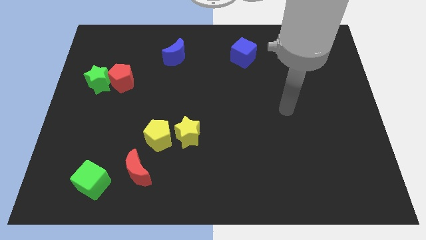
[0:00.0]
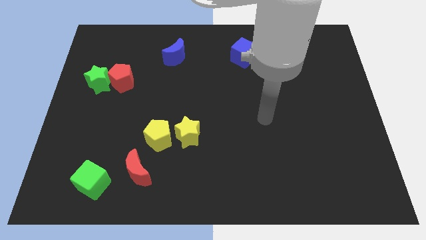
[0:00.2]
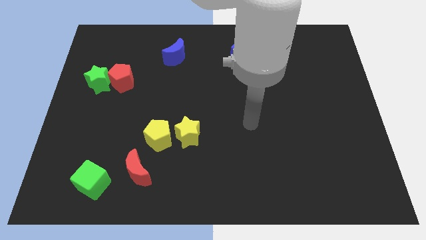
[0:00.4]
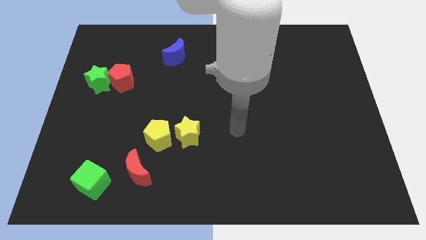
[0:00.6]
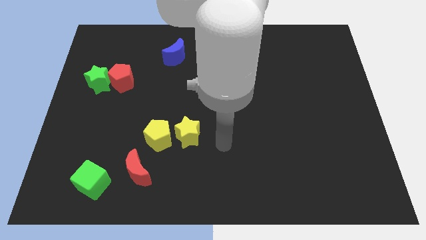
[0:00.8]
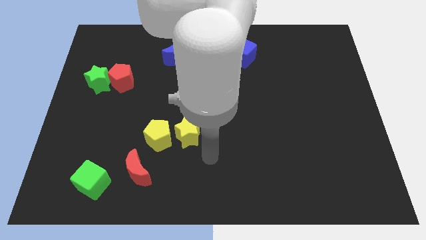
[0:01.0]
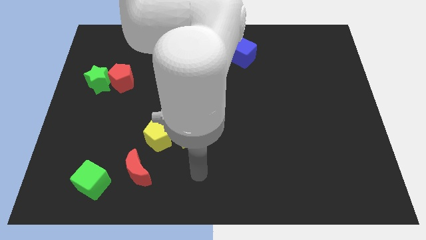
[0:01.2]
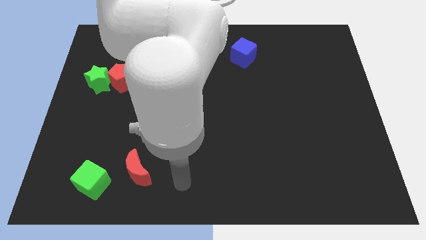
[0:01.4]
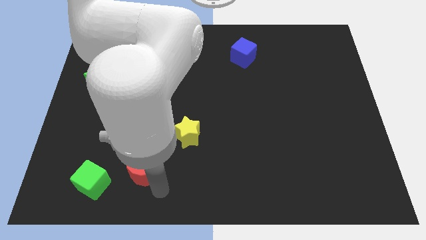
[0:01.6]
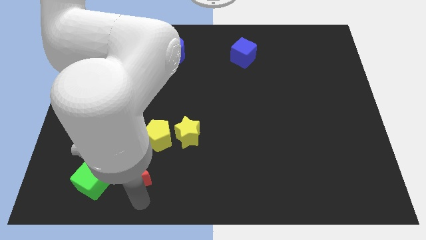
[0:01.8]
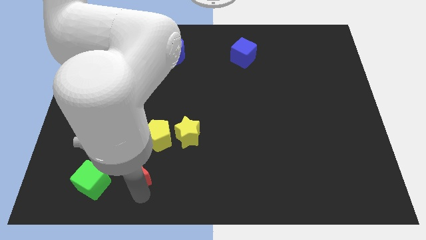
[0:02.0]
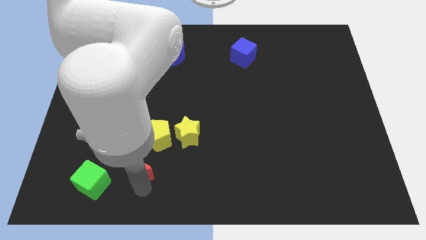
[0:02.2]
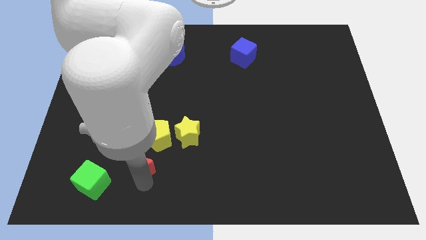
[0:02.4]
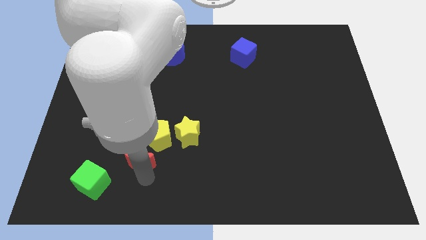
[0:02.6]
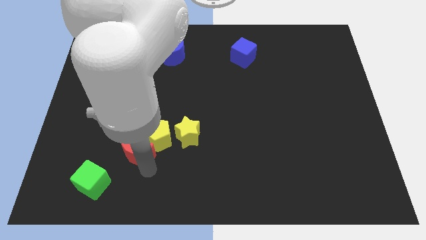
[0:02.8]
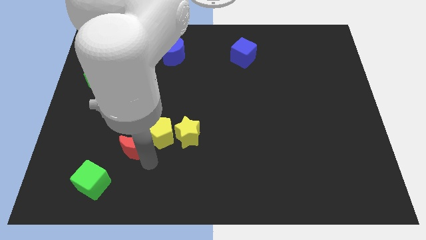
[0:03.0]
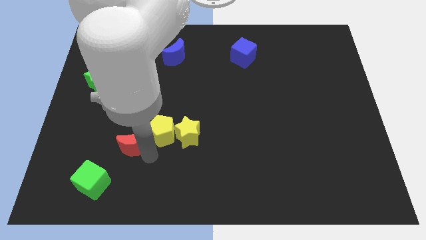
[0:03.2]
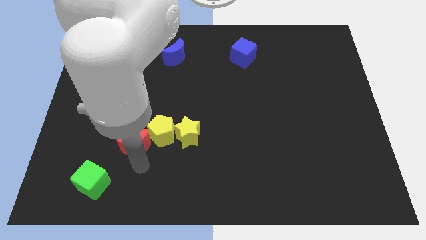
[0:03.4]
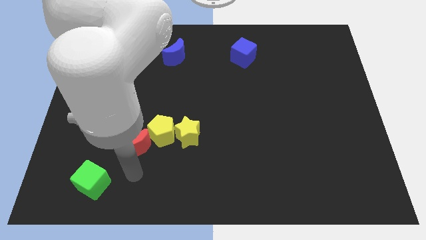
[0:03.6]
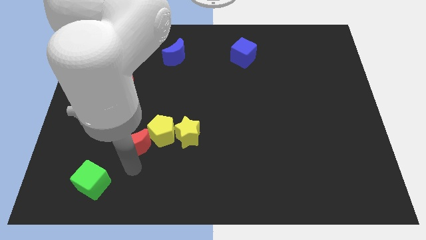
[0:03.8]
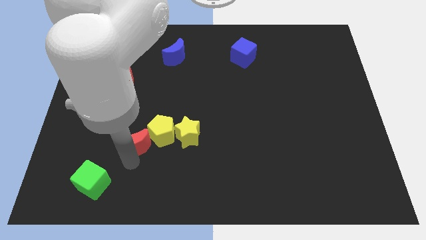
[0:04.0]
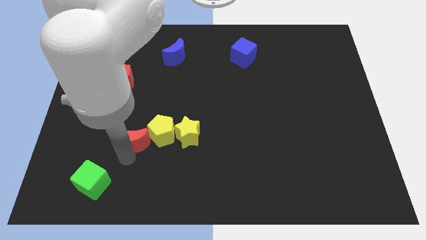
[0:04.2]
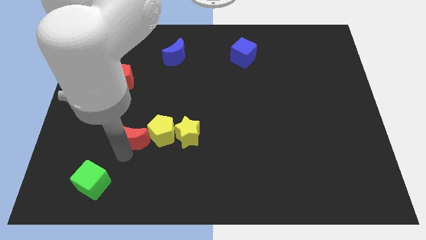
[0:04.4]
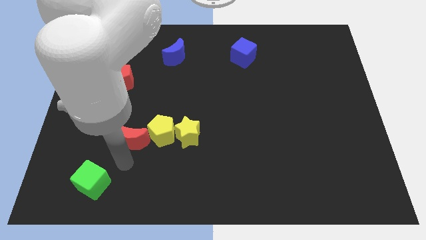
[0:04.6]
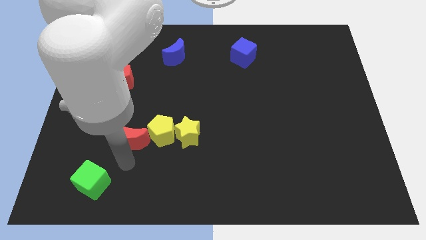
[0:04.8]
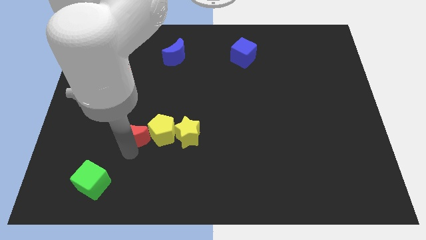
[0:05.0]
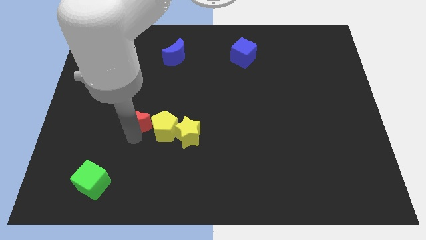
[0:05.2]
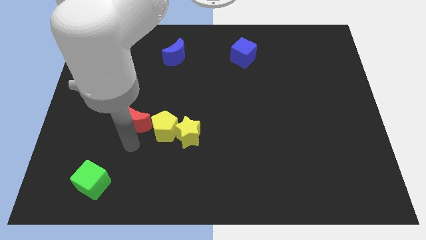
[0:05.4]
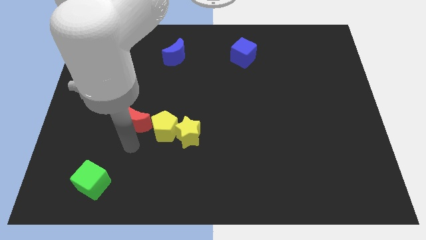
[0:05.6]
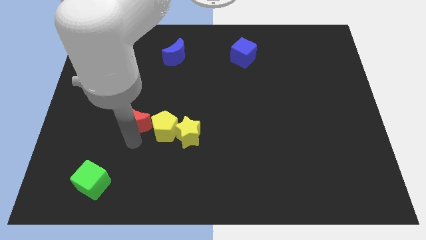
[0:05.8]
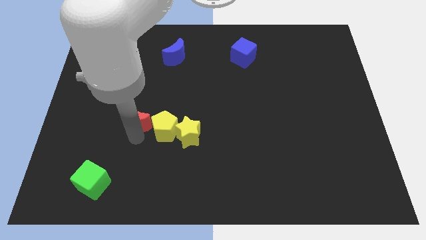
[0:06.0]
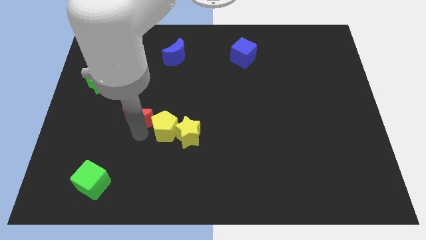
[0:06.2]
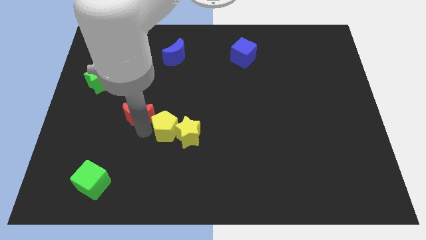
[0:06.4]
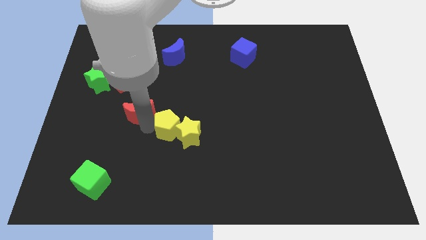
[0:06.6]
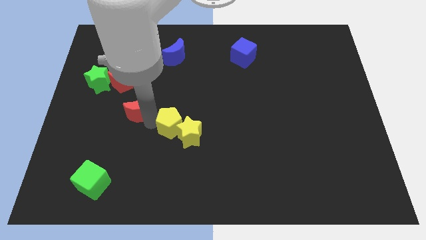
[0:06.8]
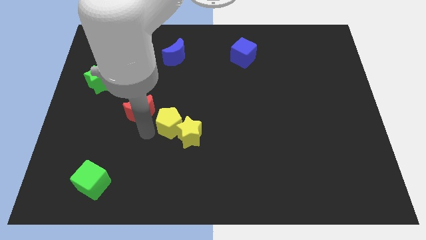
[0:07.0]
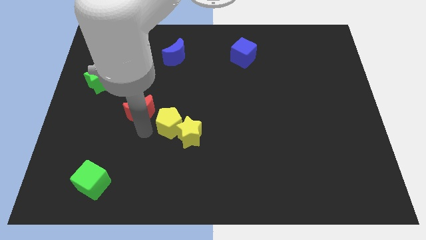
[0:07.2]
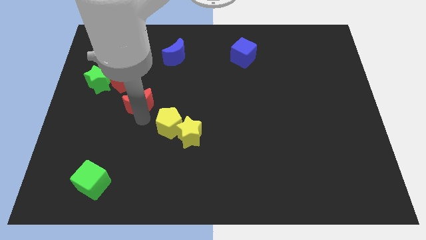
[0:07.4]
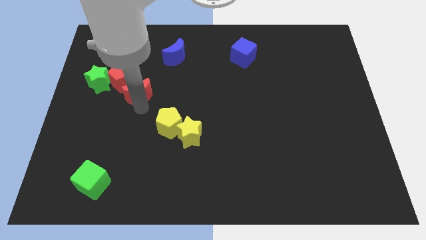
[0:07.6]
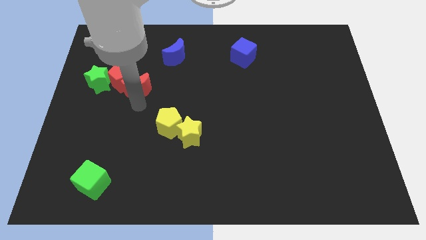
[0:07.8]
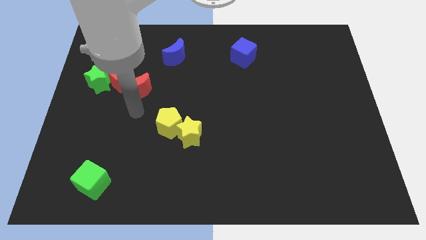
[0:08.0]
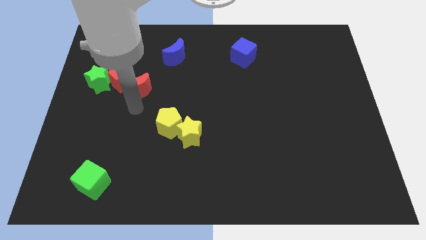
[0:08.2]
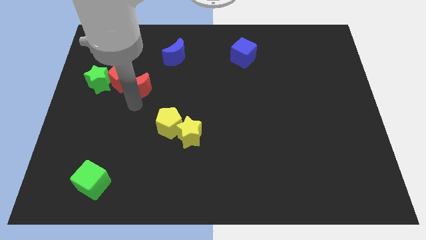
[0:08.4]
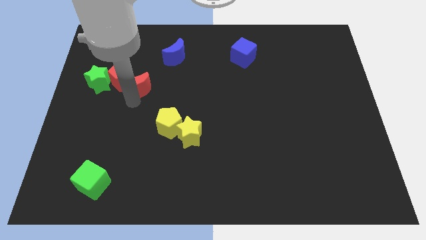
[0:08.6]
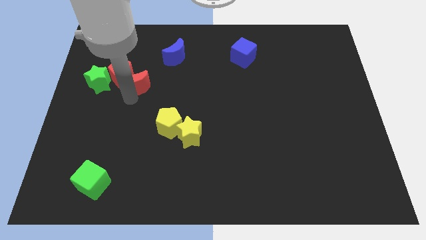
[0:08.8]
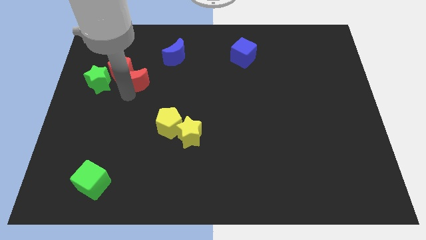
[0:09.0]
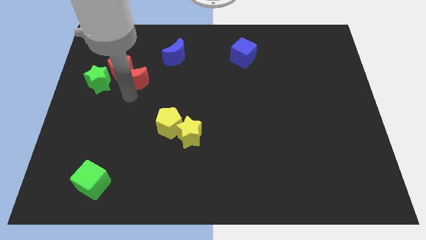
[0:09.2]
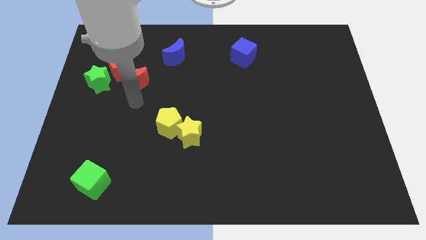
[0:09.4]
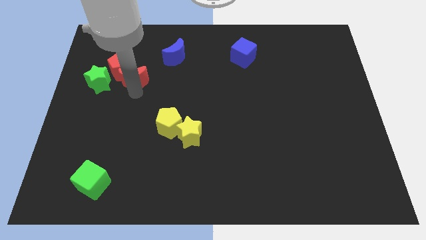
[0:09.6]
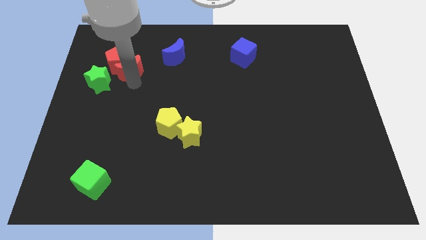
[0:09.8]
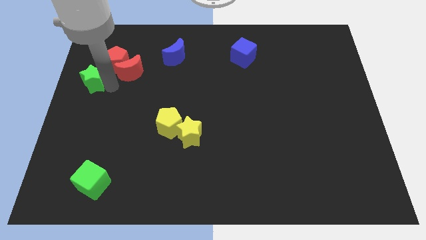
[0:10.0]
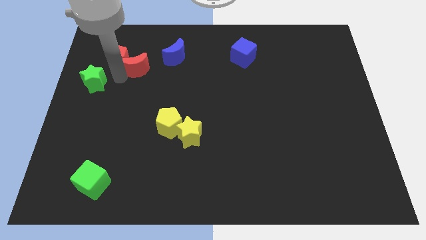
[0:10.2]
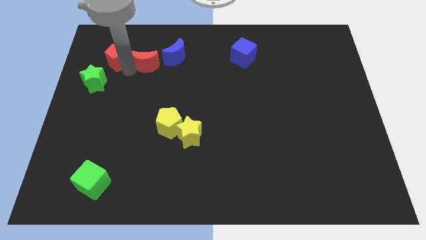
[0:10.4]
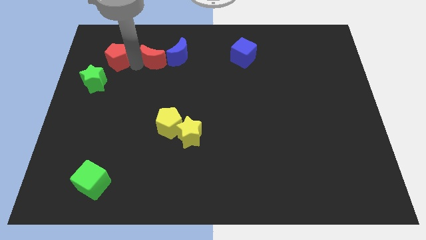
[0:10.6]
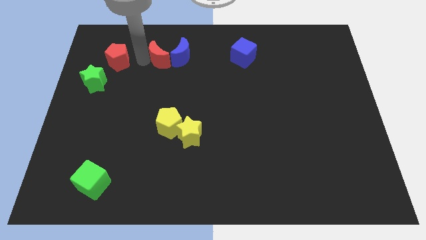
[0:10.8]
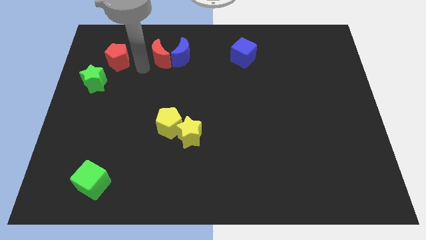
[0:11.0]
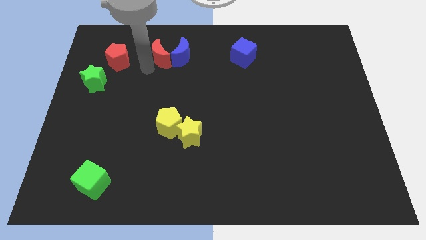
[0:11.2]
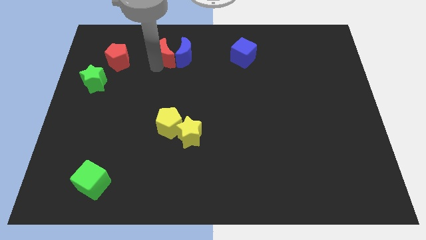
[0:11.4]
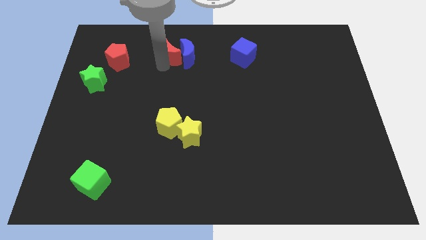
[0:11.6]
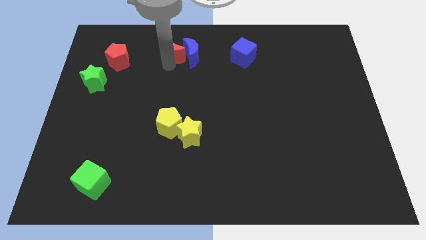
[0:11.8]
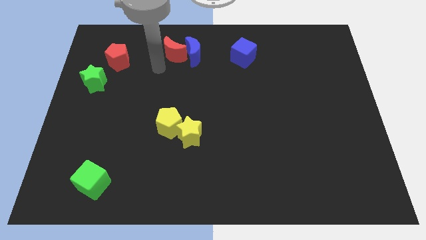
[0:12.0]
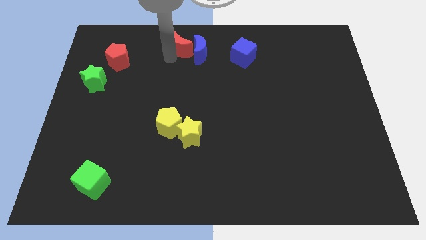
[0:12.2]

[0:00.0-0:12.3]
slide the red moon to the towards your base

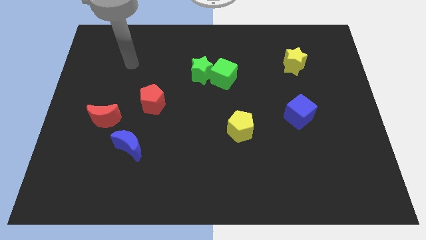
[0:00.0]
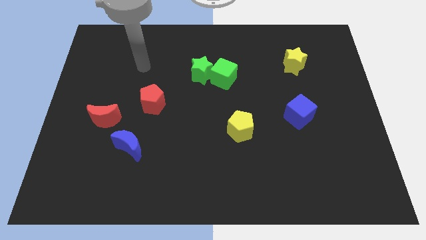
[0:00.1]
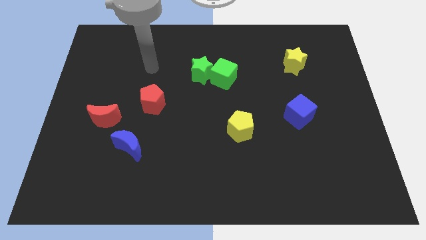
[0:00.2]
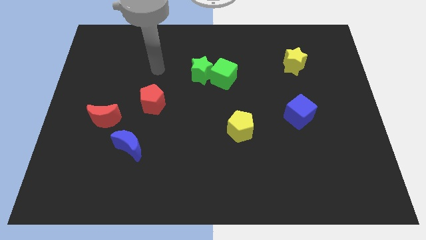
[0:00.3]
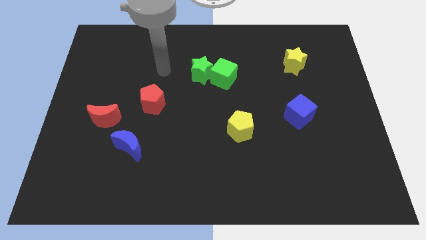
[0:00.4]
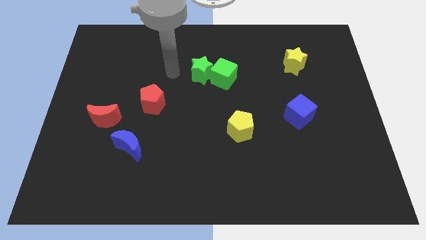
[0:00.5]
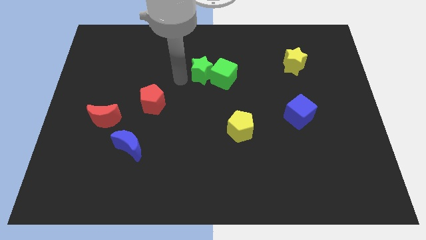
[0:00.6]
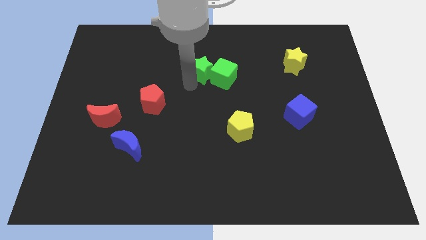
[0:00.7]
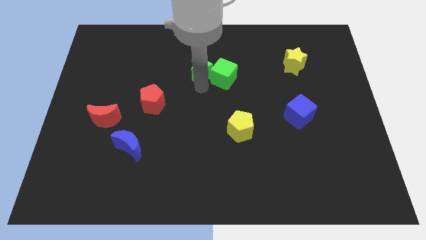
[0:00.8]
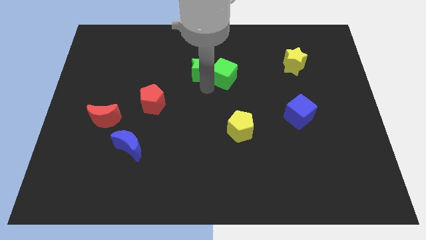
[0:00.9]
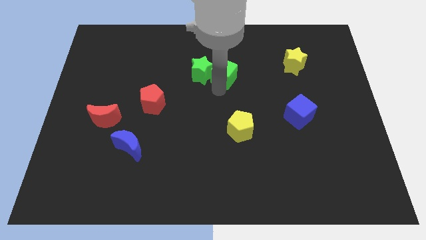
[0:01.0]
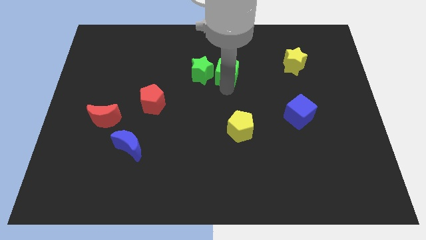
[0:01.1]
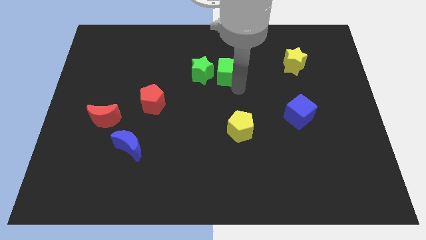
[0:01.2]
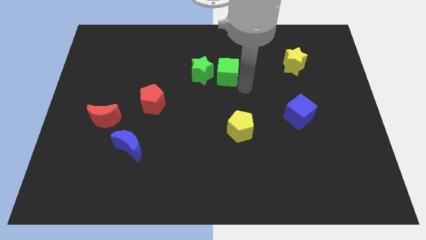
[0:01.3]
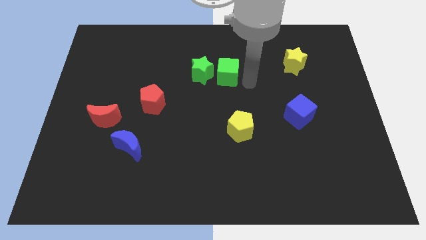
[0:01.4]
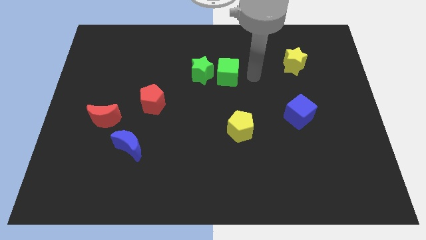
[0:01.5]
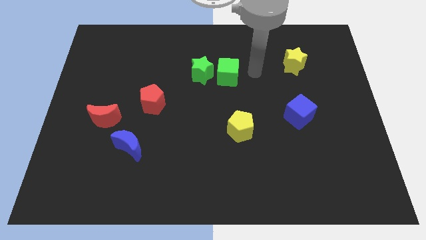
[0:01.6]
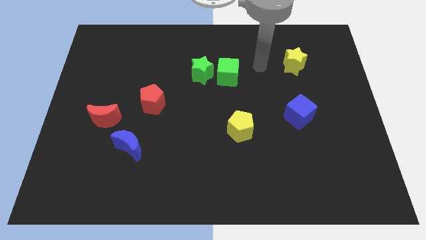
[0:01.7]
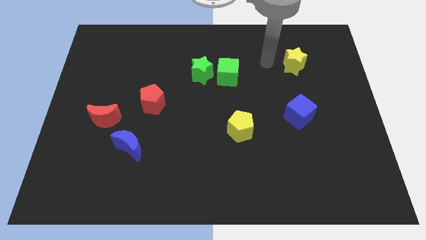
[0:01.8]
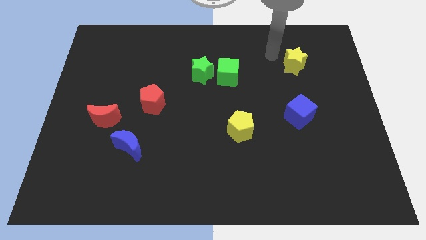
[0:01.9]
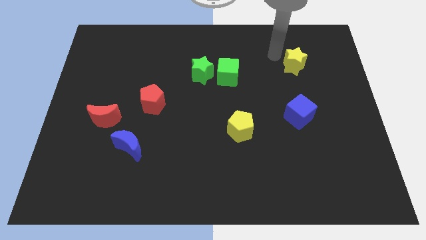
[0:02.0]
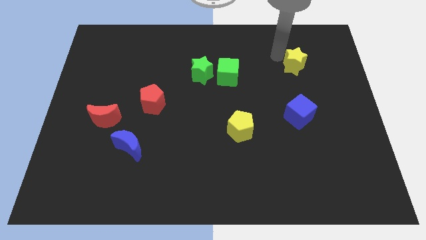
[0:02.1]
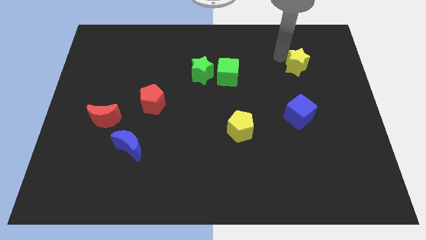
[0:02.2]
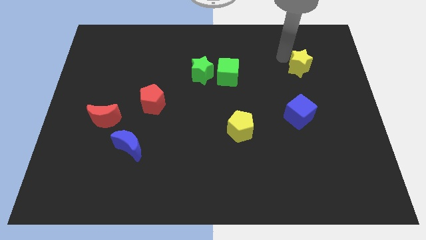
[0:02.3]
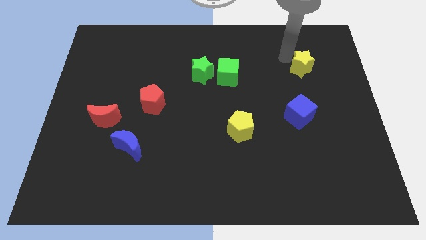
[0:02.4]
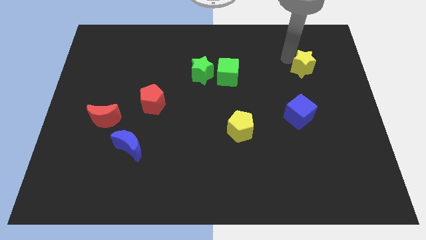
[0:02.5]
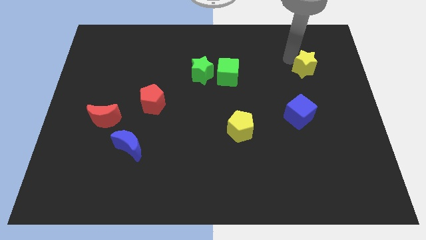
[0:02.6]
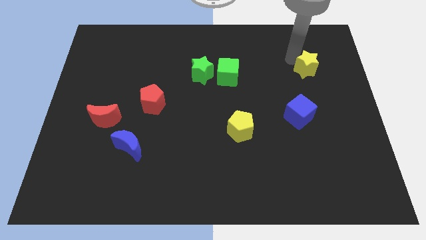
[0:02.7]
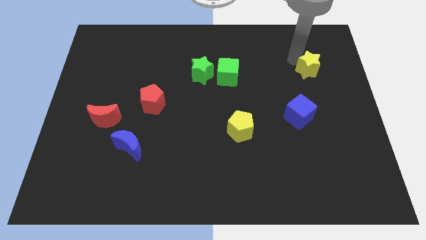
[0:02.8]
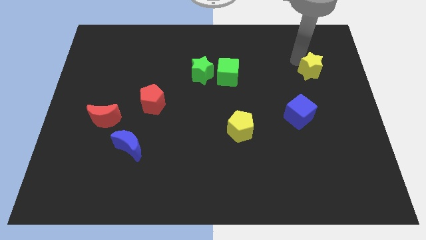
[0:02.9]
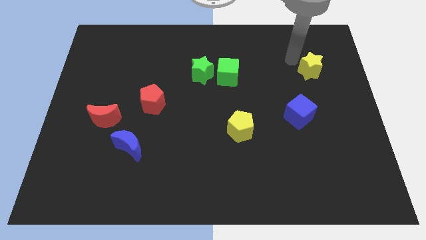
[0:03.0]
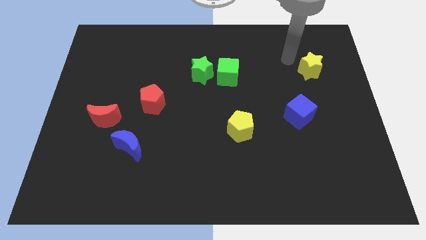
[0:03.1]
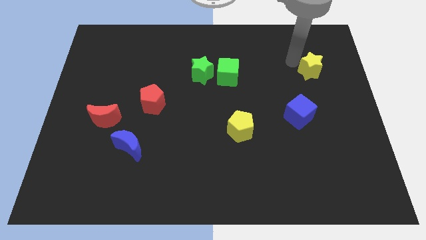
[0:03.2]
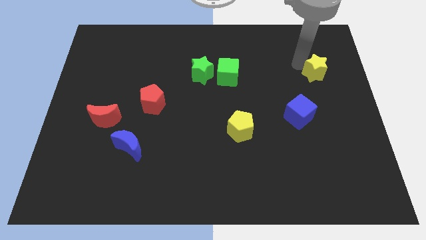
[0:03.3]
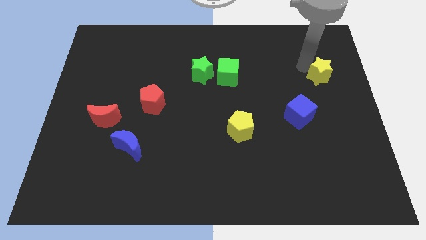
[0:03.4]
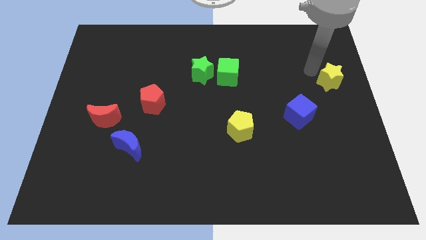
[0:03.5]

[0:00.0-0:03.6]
move the yellow star to the right side
